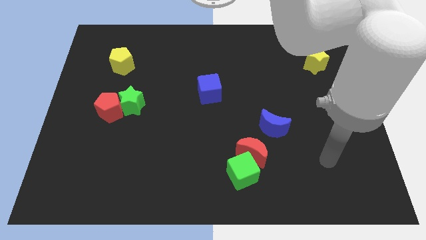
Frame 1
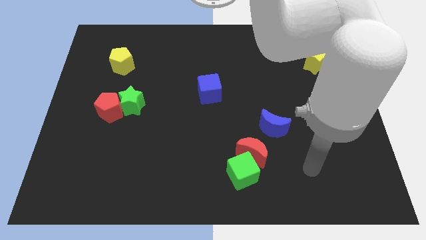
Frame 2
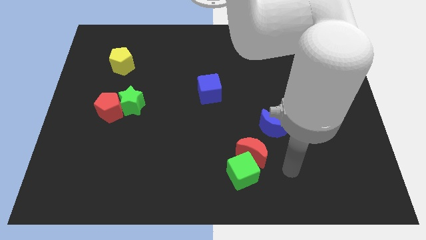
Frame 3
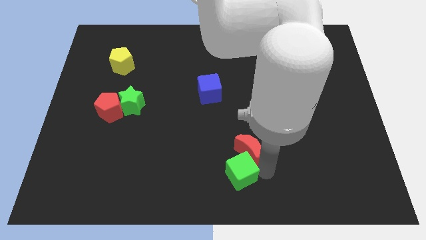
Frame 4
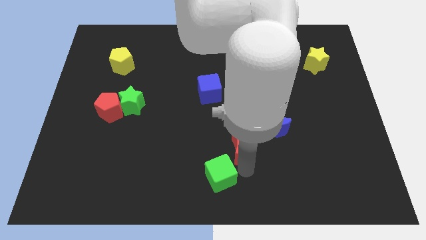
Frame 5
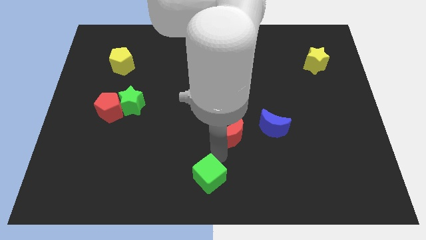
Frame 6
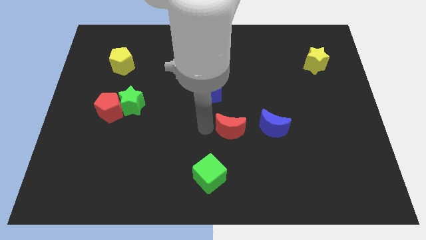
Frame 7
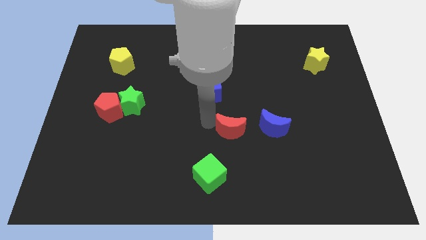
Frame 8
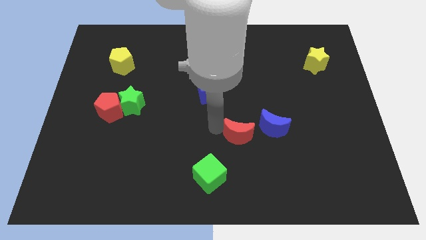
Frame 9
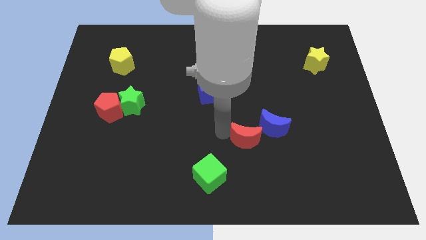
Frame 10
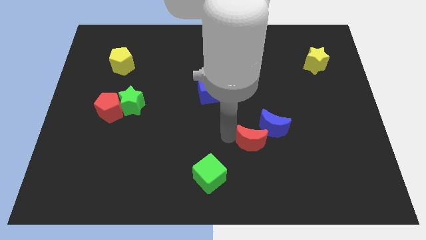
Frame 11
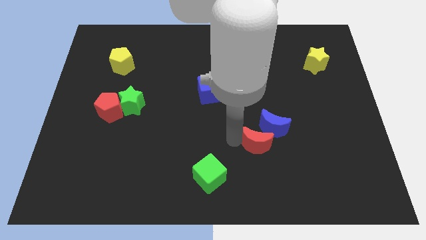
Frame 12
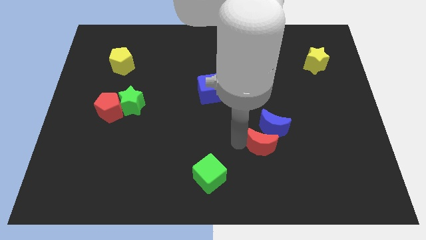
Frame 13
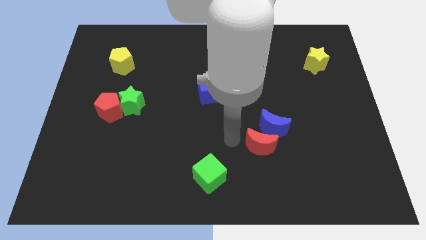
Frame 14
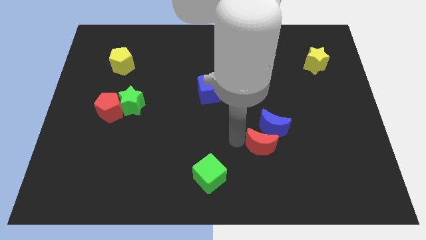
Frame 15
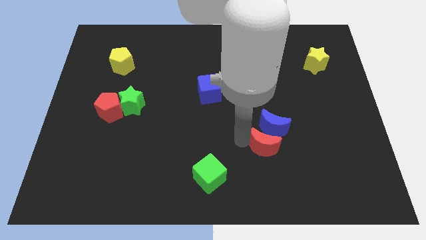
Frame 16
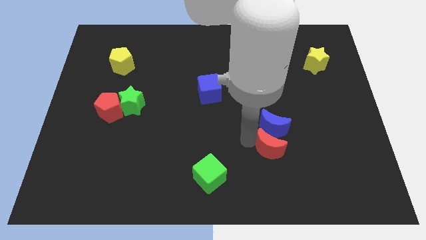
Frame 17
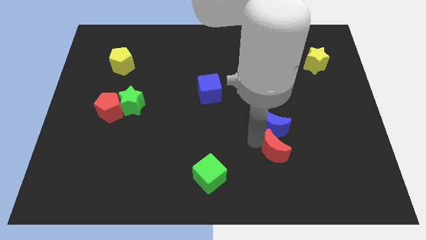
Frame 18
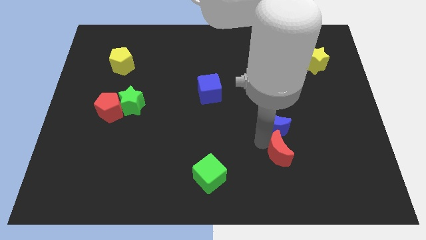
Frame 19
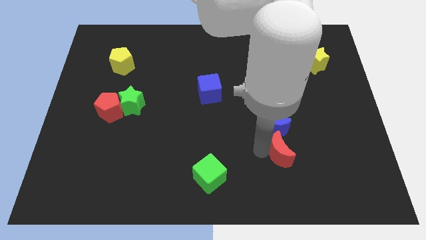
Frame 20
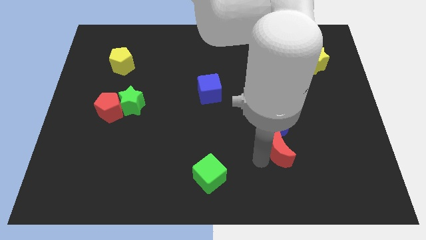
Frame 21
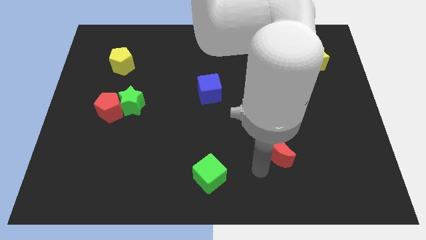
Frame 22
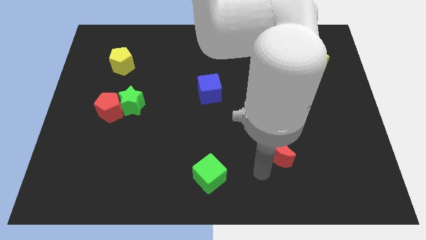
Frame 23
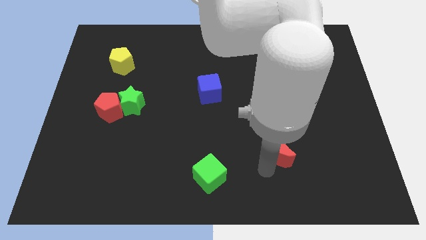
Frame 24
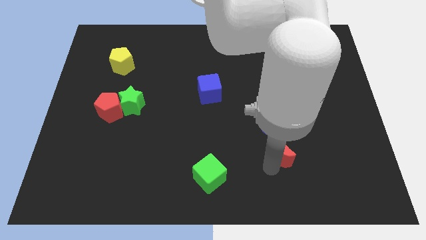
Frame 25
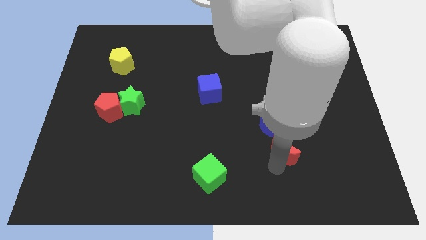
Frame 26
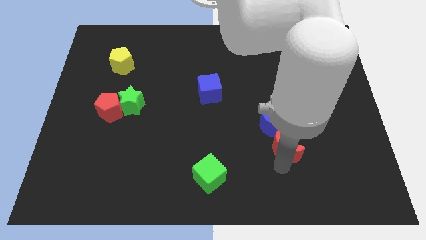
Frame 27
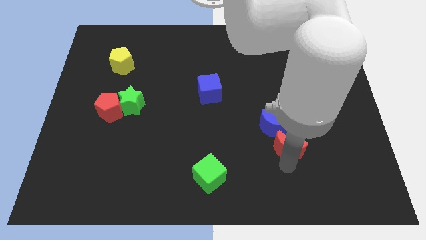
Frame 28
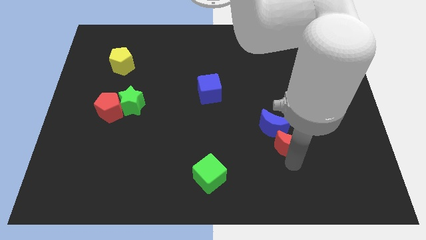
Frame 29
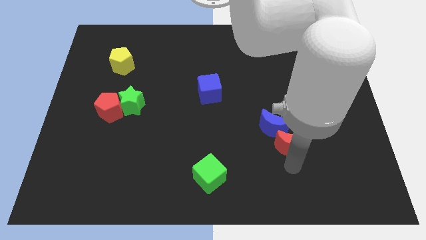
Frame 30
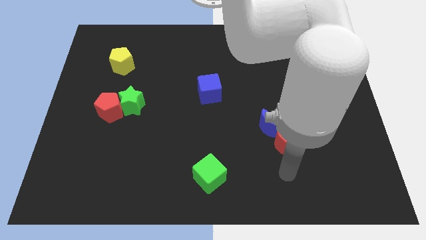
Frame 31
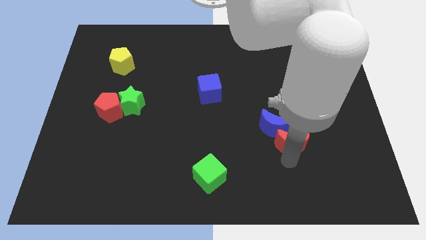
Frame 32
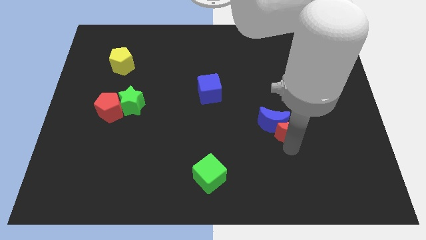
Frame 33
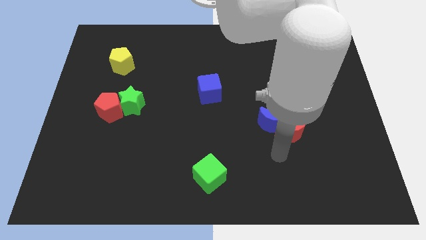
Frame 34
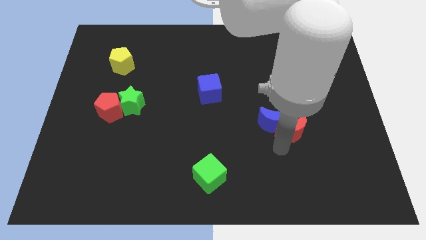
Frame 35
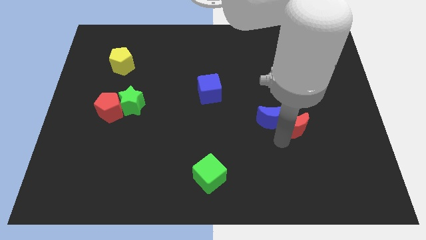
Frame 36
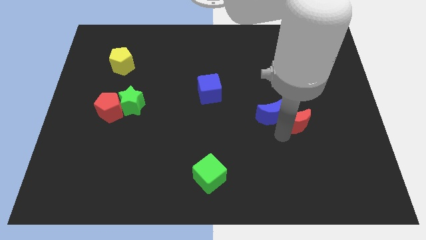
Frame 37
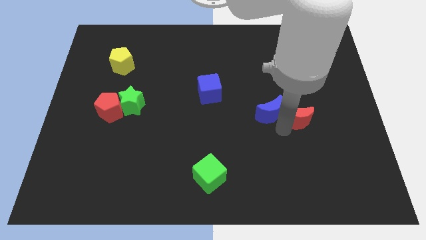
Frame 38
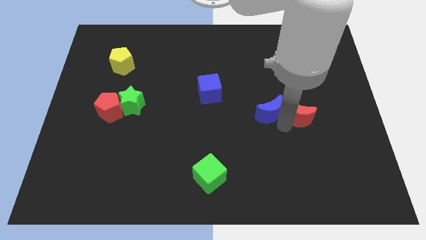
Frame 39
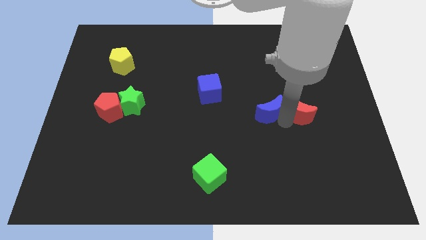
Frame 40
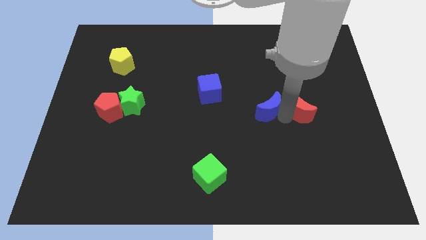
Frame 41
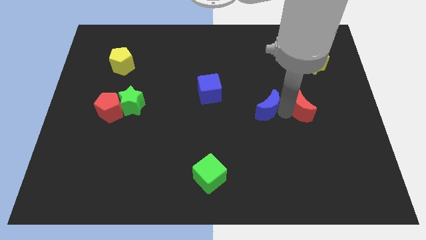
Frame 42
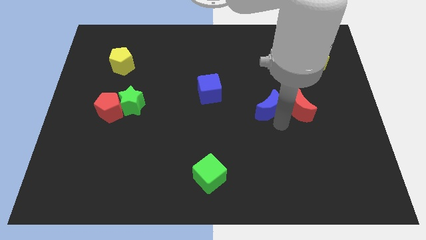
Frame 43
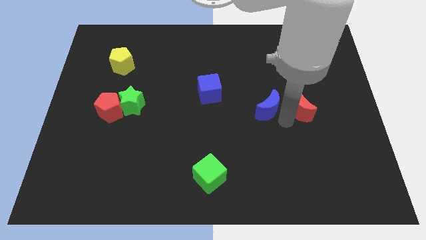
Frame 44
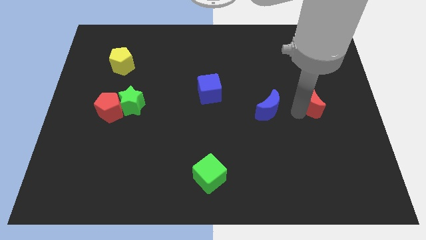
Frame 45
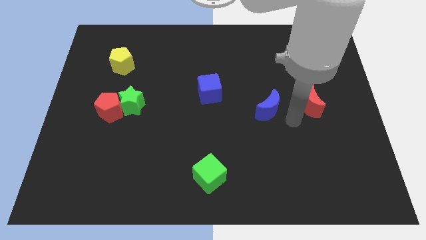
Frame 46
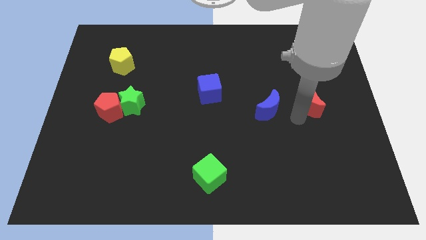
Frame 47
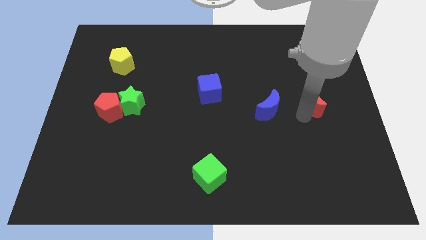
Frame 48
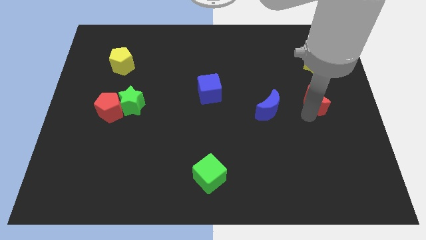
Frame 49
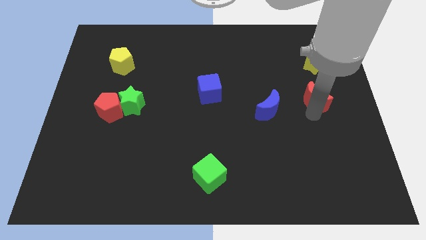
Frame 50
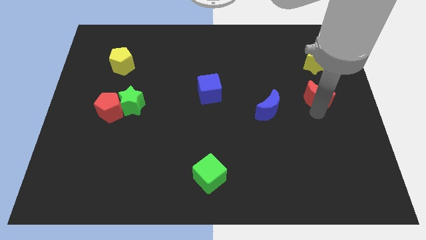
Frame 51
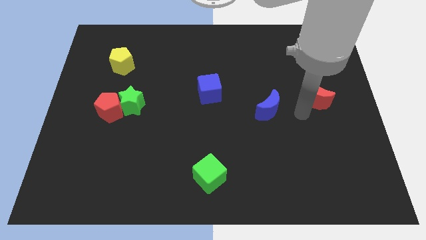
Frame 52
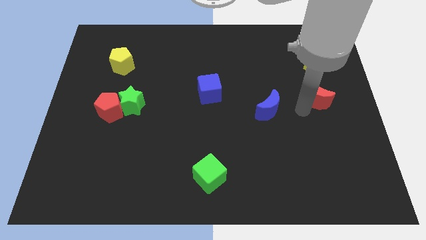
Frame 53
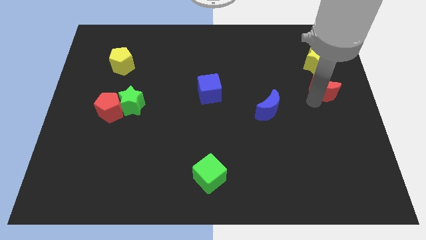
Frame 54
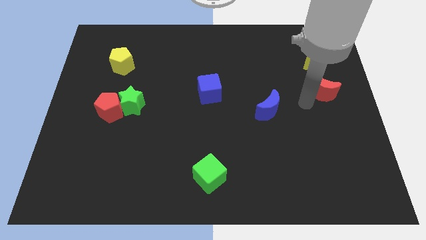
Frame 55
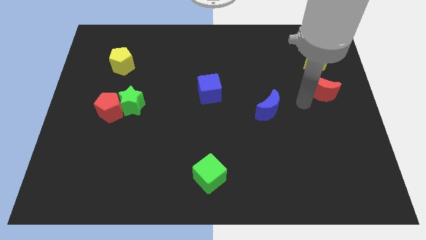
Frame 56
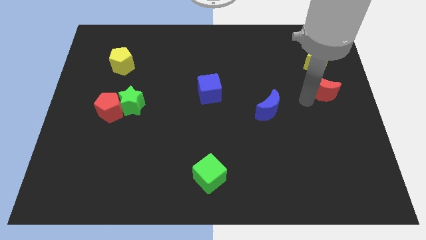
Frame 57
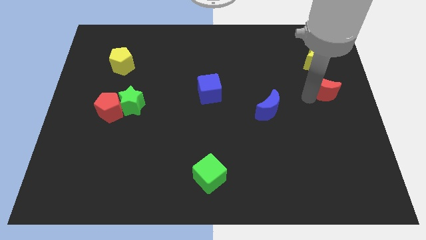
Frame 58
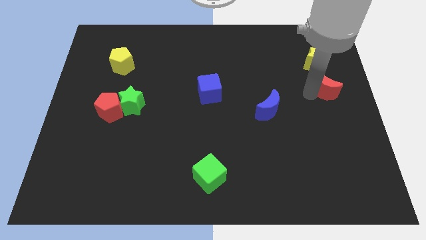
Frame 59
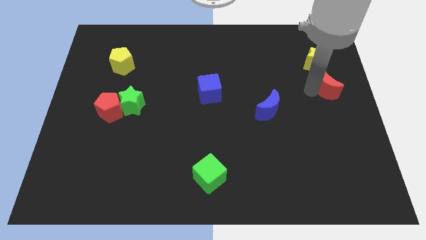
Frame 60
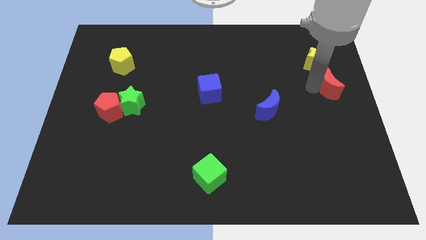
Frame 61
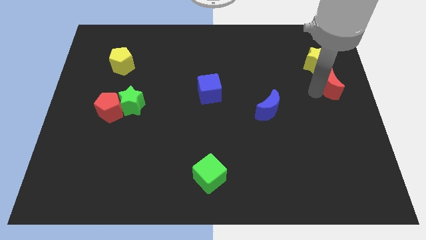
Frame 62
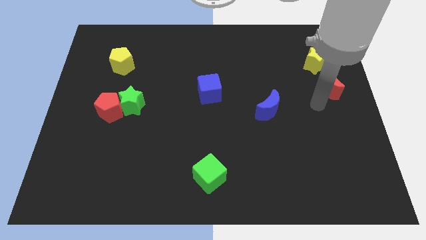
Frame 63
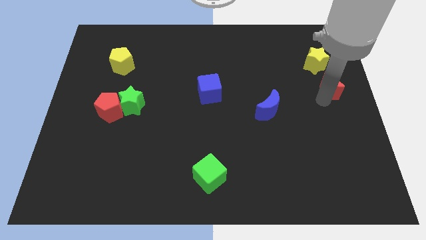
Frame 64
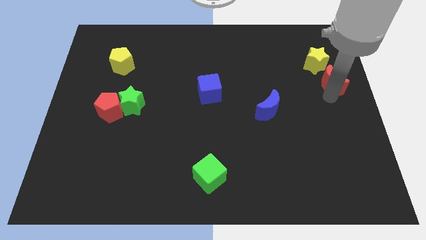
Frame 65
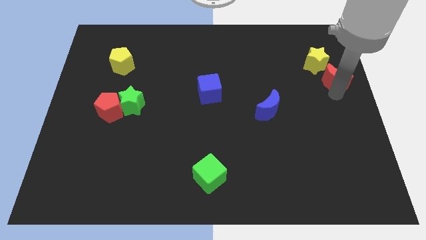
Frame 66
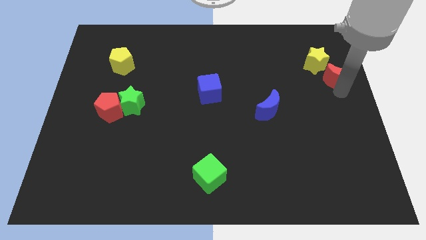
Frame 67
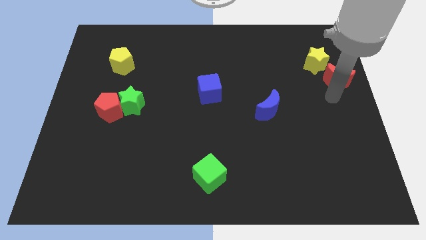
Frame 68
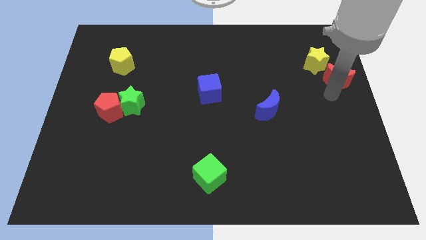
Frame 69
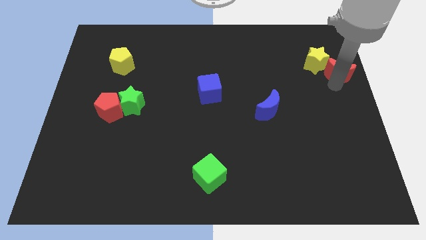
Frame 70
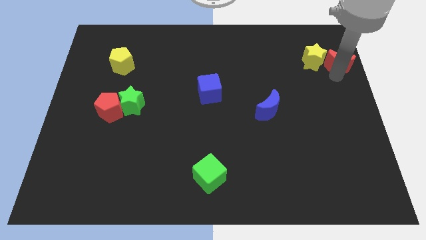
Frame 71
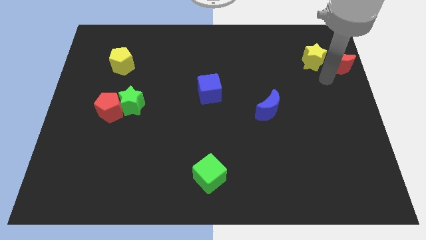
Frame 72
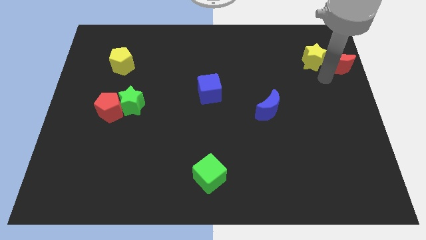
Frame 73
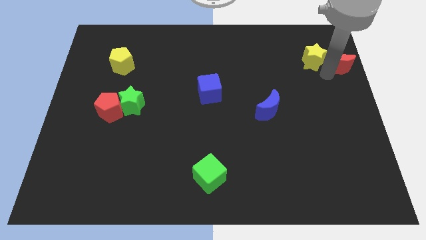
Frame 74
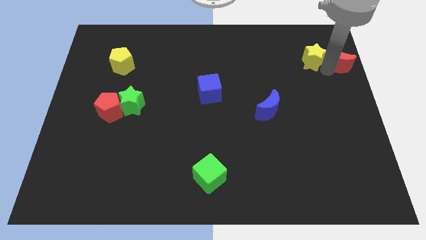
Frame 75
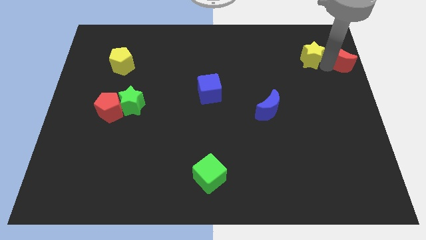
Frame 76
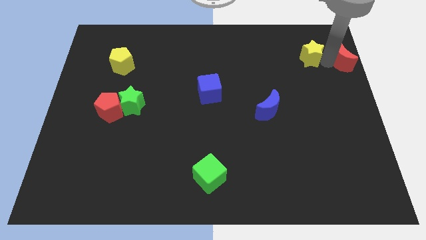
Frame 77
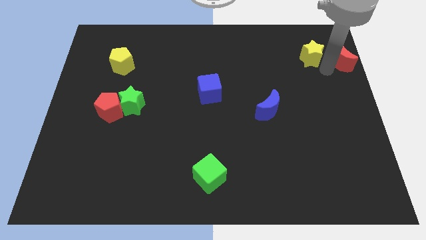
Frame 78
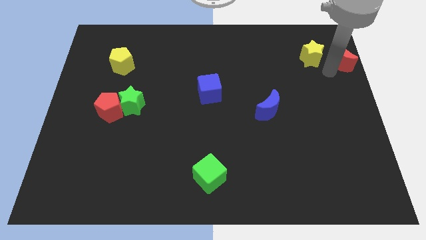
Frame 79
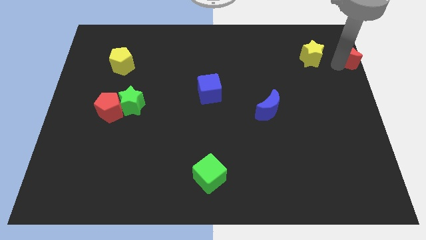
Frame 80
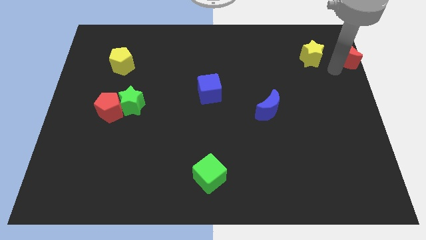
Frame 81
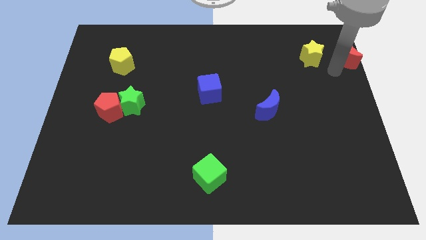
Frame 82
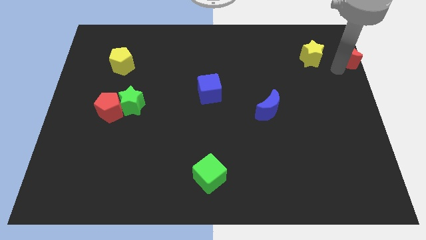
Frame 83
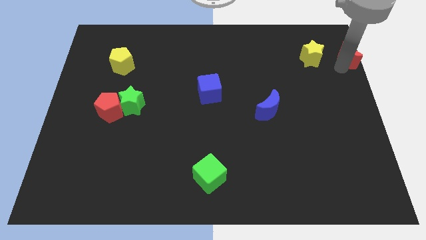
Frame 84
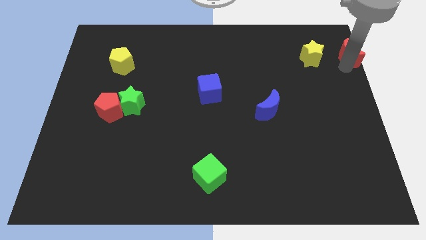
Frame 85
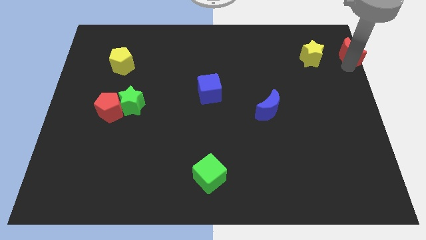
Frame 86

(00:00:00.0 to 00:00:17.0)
push the red moon to the upper right corner
